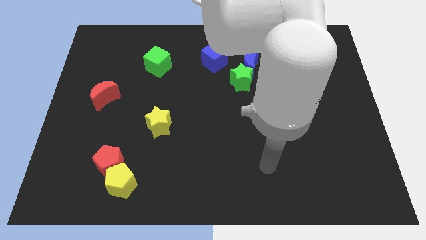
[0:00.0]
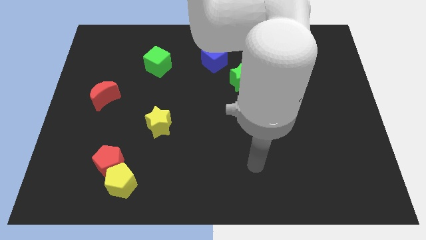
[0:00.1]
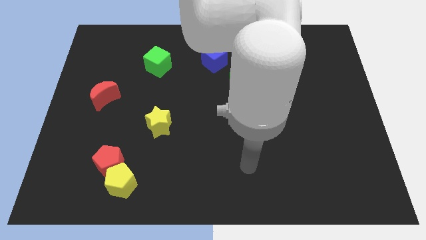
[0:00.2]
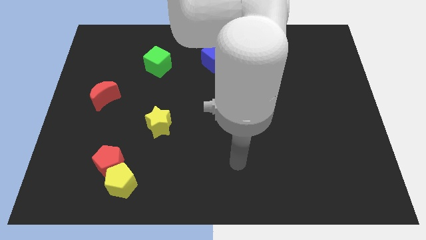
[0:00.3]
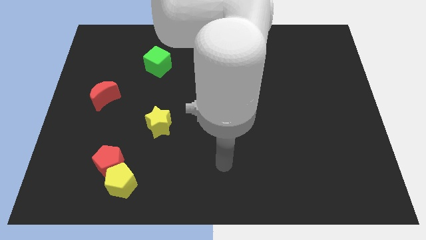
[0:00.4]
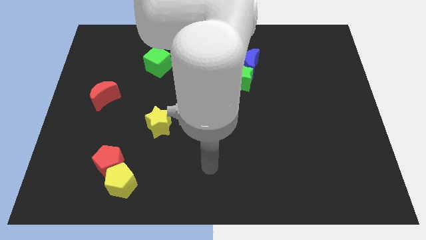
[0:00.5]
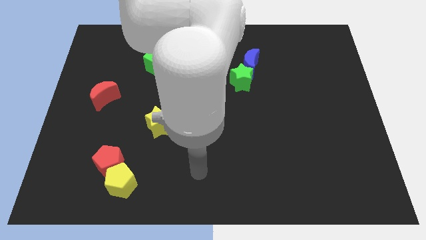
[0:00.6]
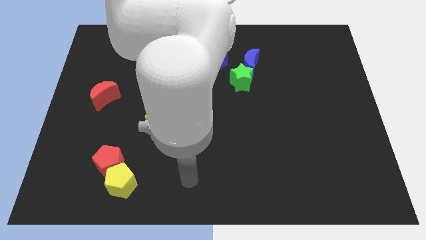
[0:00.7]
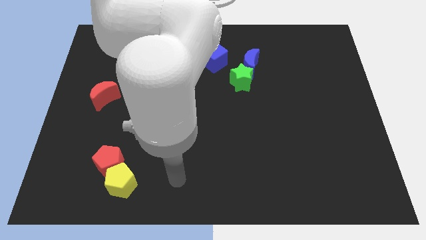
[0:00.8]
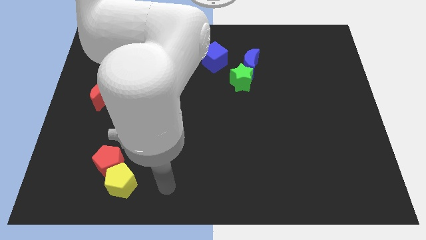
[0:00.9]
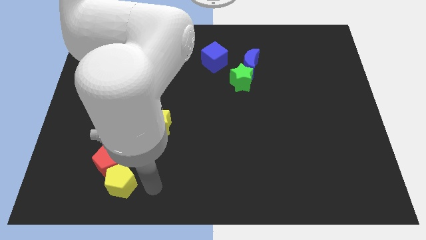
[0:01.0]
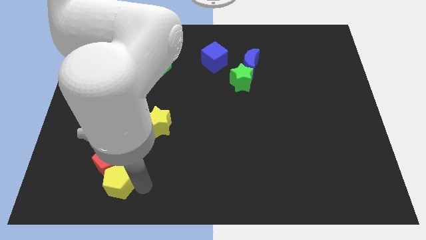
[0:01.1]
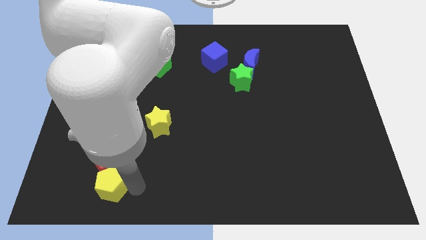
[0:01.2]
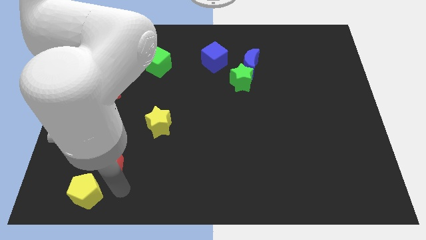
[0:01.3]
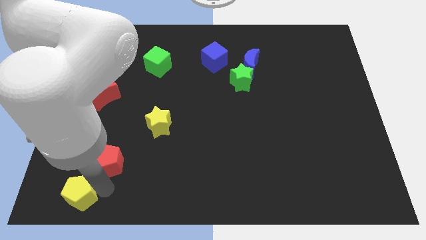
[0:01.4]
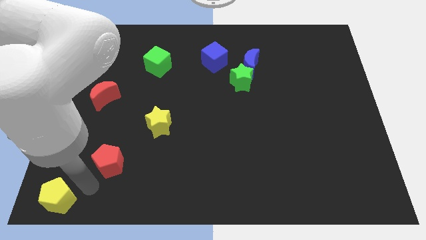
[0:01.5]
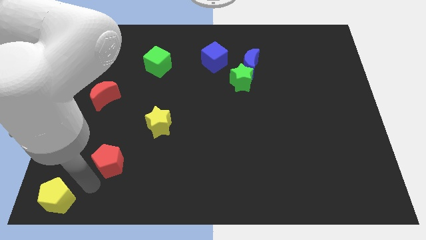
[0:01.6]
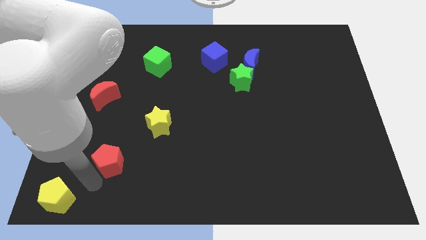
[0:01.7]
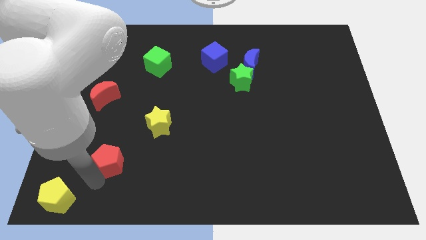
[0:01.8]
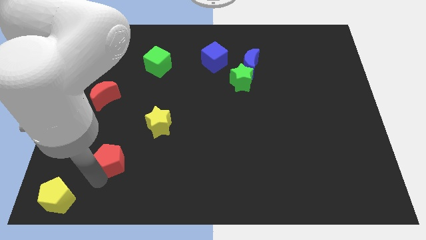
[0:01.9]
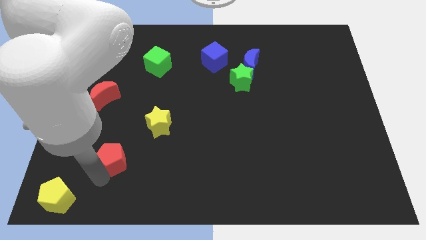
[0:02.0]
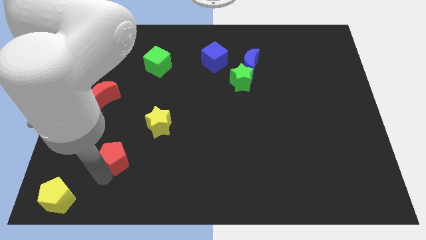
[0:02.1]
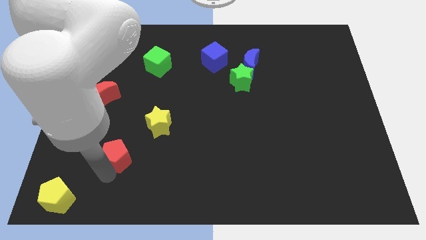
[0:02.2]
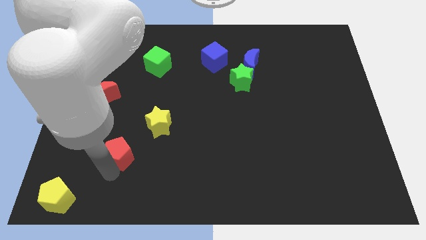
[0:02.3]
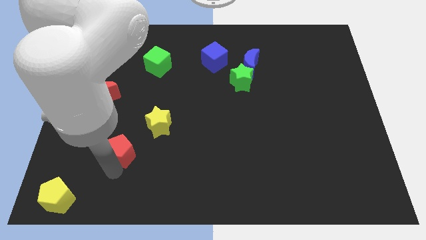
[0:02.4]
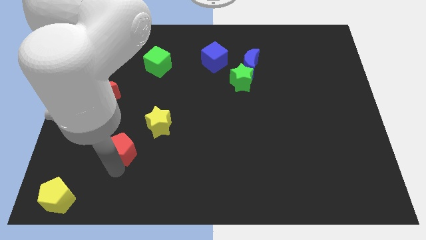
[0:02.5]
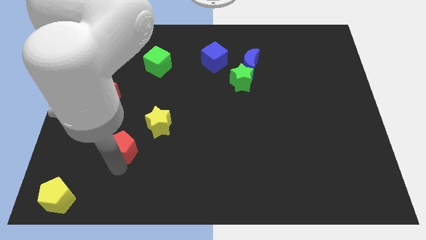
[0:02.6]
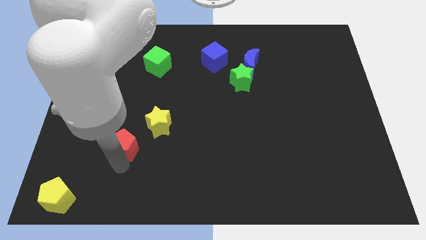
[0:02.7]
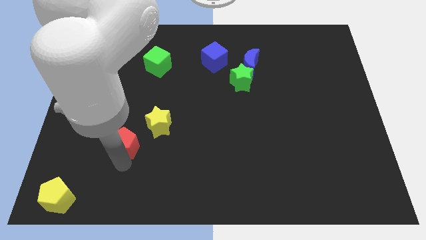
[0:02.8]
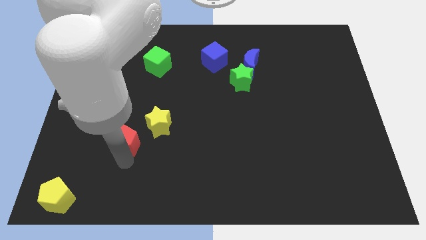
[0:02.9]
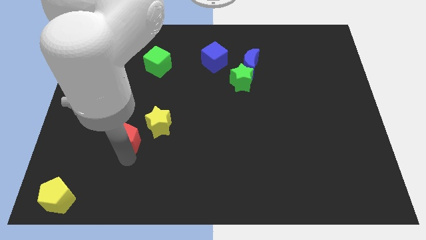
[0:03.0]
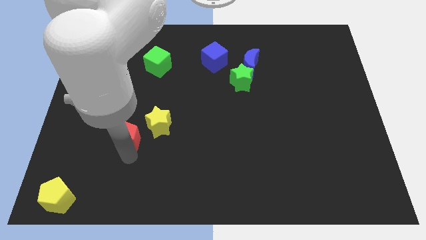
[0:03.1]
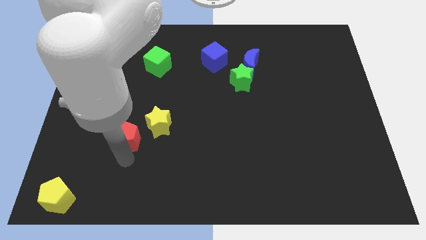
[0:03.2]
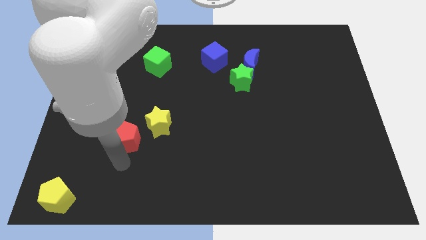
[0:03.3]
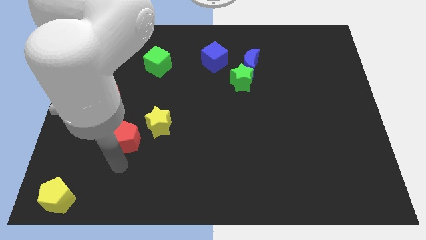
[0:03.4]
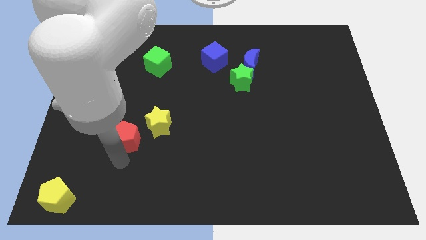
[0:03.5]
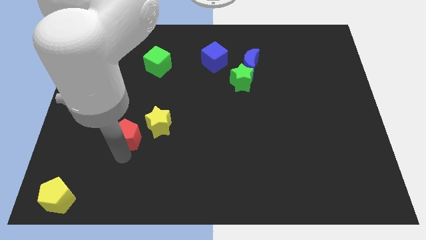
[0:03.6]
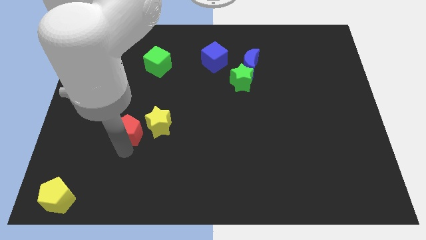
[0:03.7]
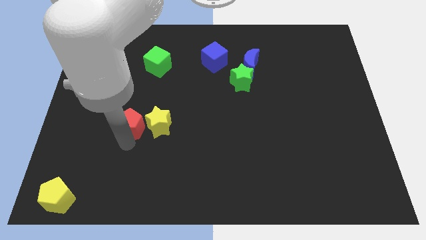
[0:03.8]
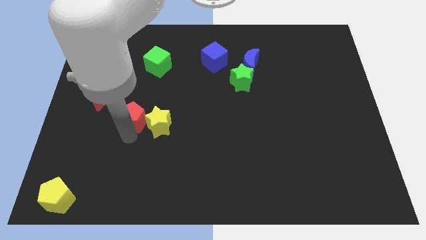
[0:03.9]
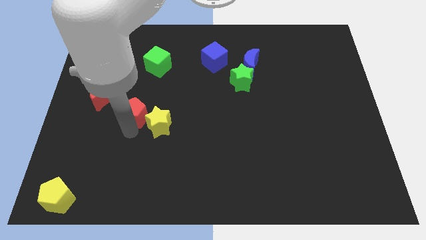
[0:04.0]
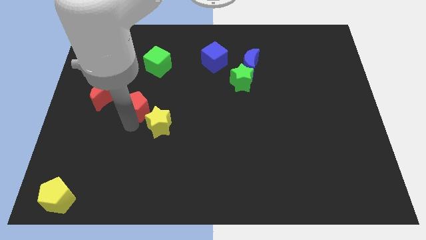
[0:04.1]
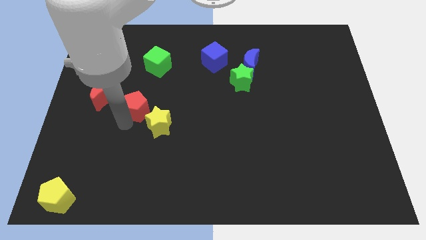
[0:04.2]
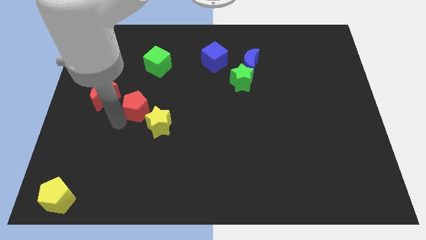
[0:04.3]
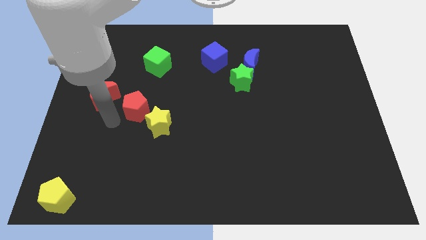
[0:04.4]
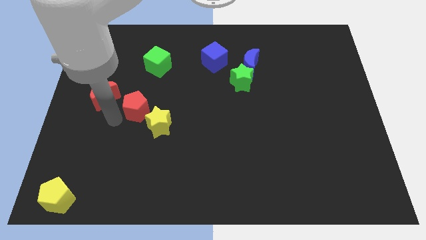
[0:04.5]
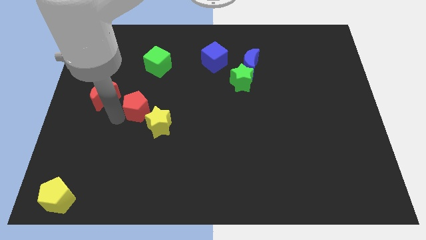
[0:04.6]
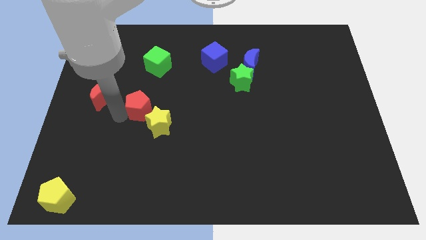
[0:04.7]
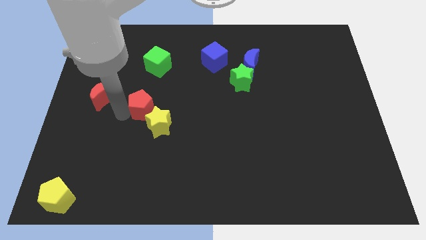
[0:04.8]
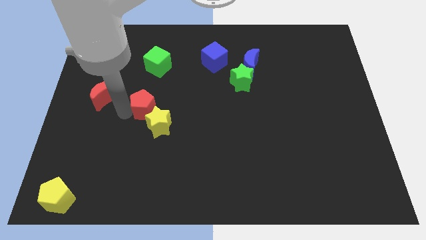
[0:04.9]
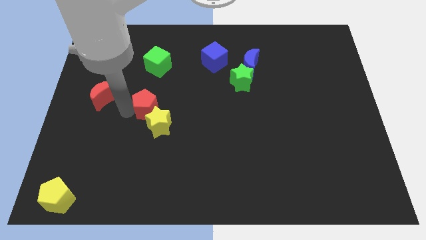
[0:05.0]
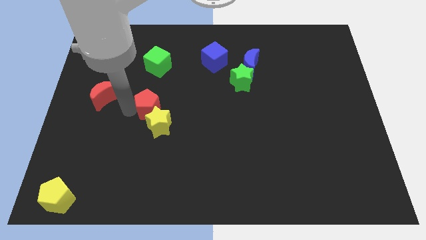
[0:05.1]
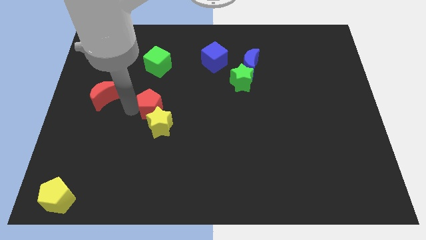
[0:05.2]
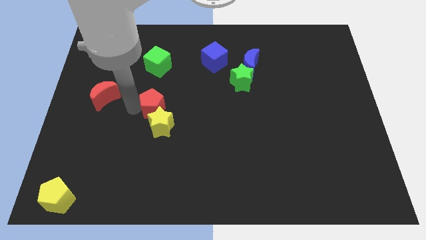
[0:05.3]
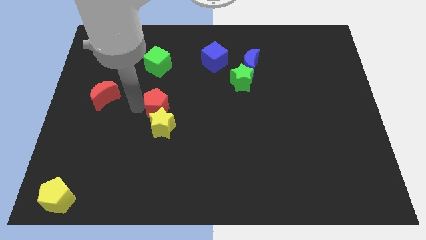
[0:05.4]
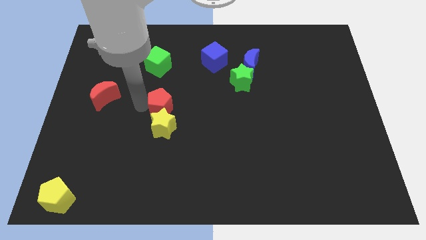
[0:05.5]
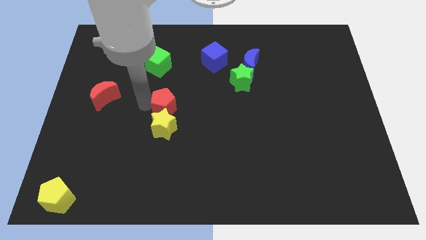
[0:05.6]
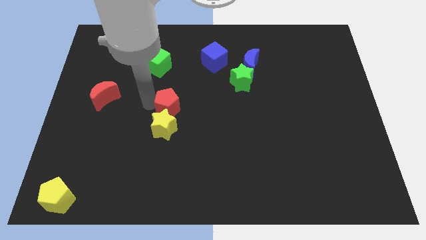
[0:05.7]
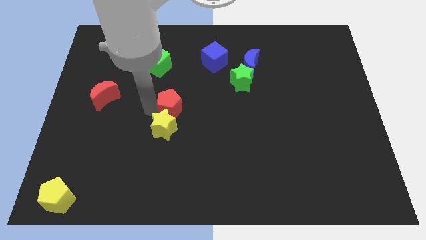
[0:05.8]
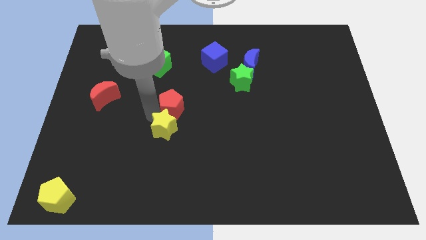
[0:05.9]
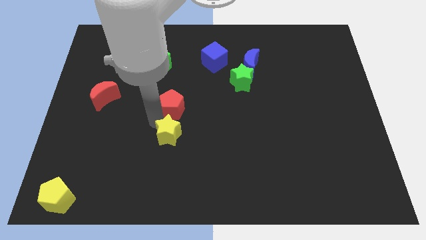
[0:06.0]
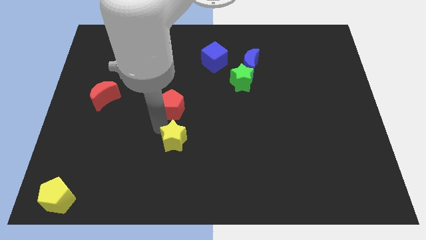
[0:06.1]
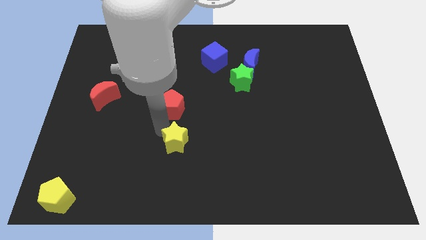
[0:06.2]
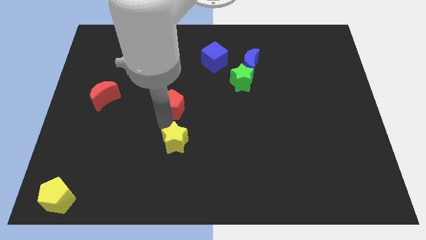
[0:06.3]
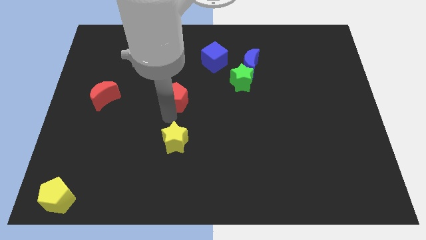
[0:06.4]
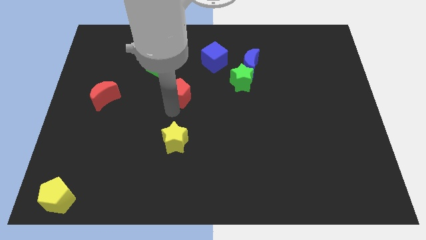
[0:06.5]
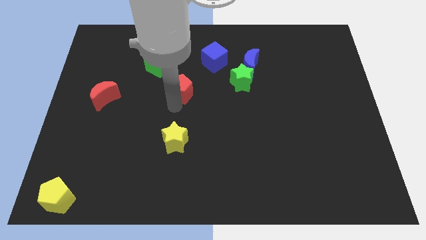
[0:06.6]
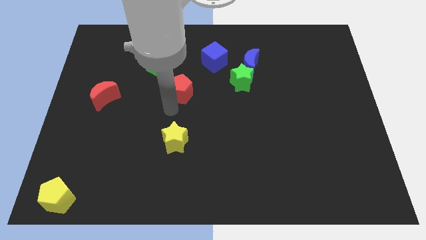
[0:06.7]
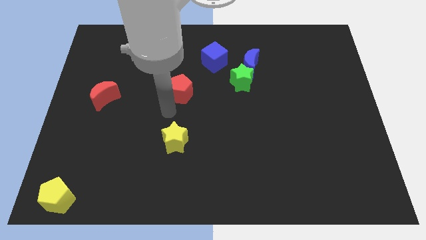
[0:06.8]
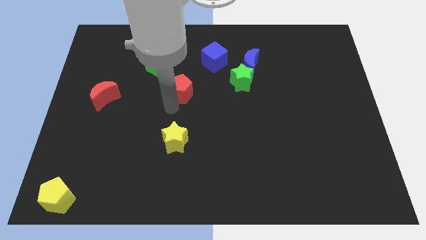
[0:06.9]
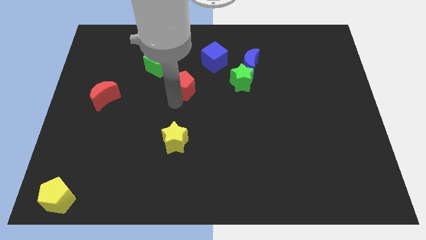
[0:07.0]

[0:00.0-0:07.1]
put the red pentagon to the bottom left side of the blue cube
